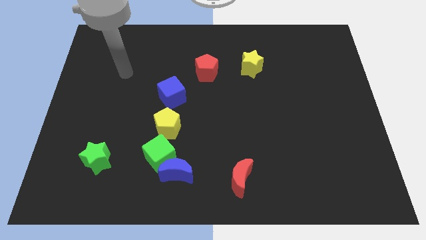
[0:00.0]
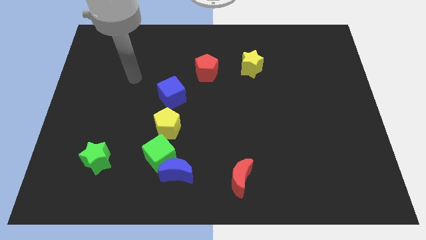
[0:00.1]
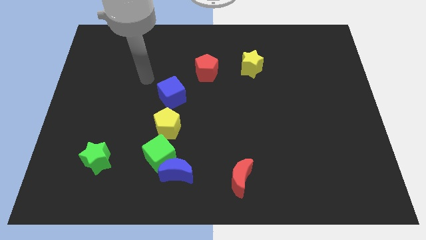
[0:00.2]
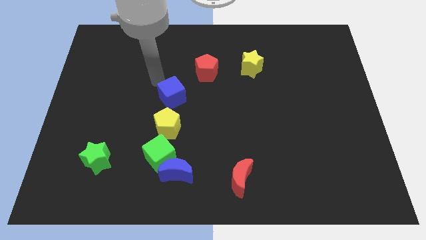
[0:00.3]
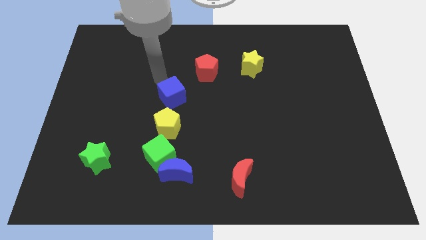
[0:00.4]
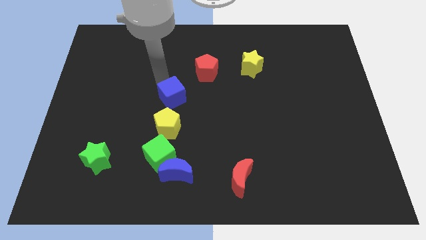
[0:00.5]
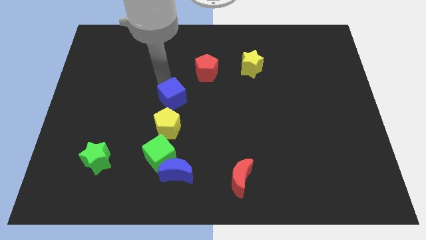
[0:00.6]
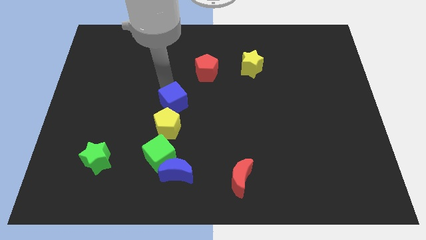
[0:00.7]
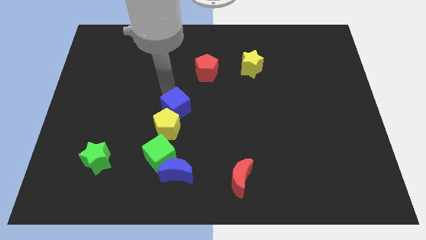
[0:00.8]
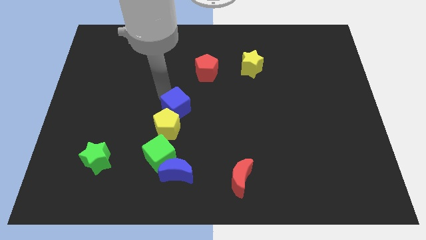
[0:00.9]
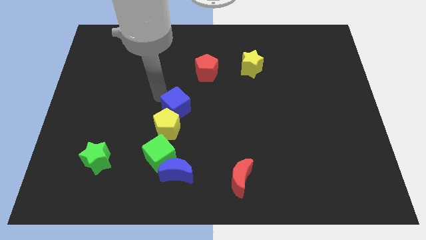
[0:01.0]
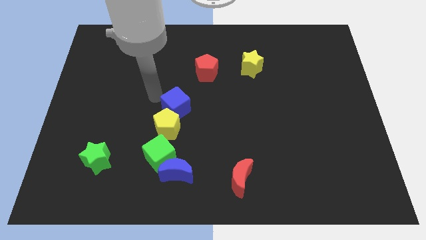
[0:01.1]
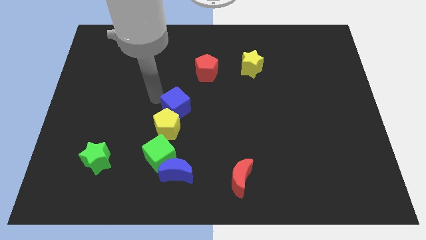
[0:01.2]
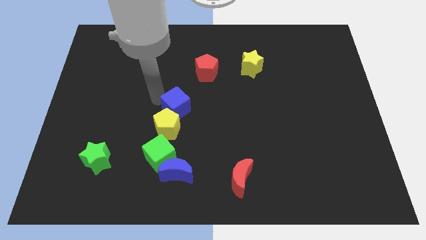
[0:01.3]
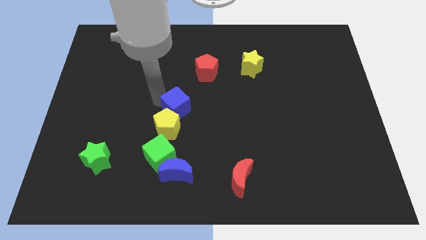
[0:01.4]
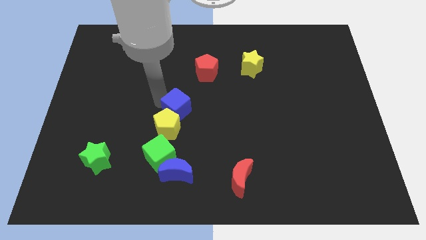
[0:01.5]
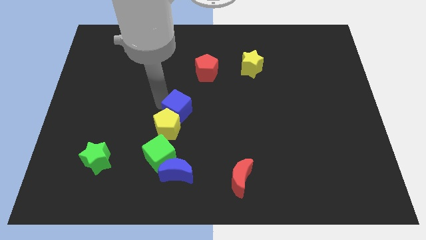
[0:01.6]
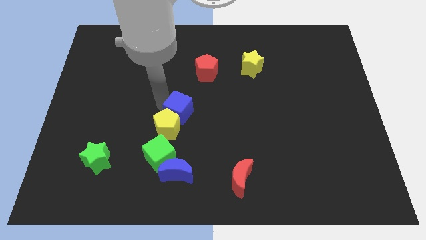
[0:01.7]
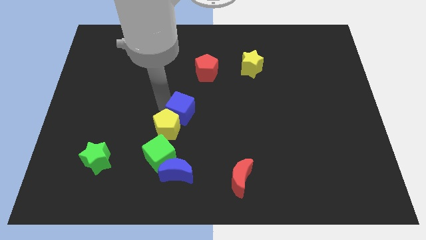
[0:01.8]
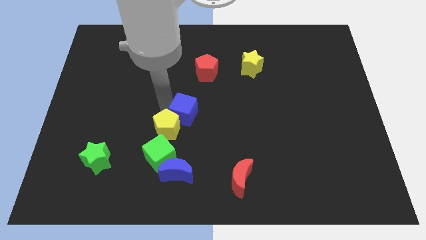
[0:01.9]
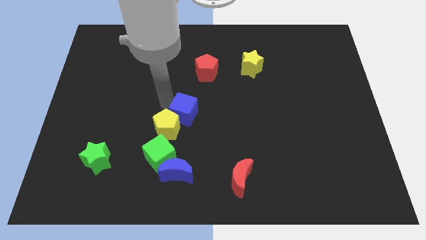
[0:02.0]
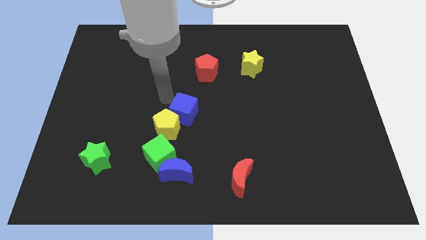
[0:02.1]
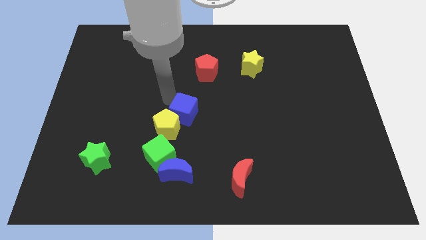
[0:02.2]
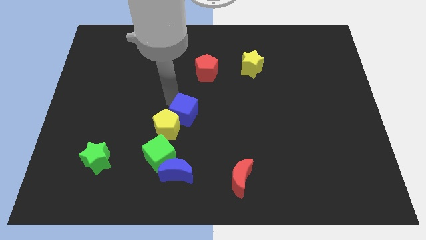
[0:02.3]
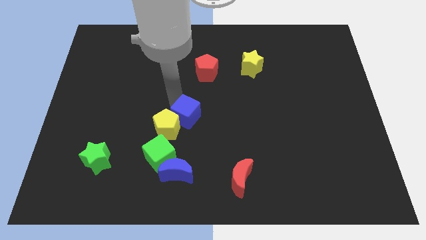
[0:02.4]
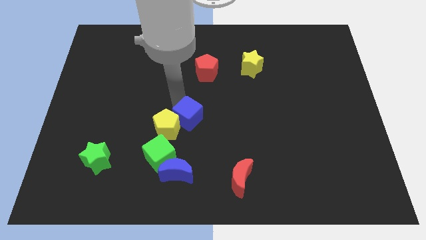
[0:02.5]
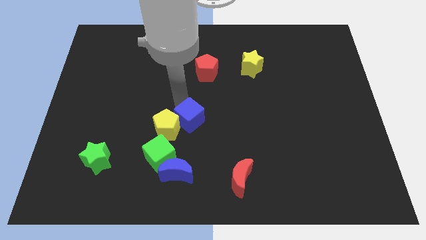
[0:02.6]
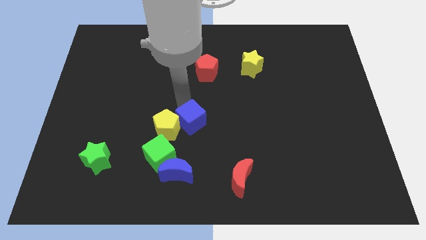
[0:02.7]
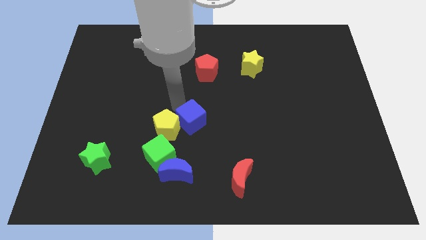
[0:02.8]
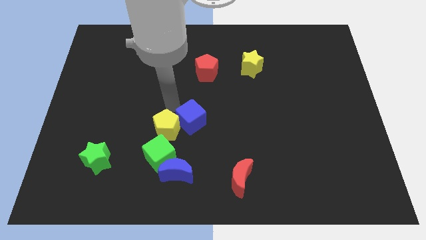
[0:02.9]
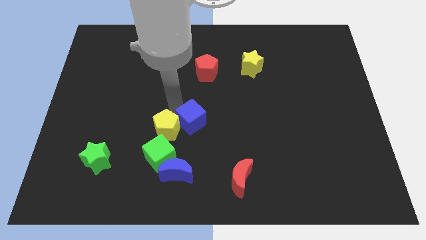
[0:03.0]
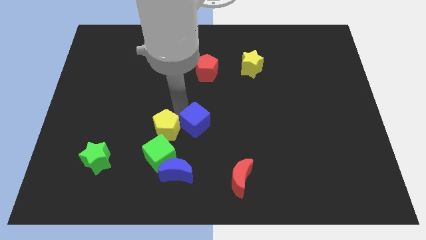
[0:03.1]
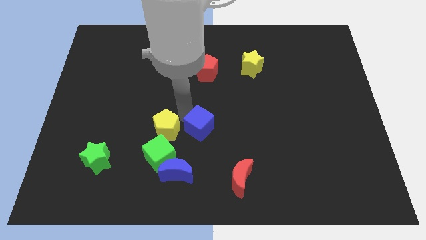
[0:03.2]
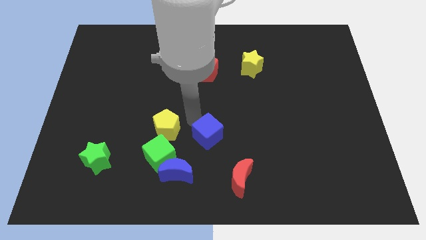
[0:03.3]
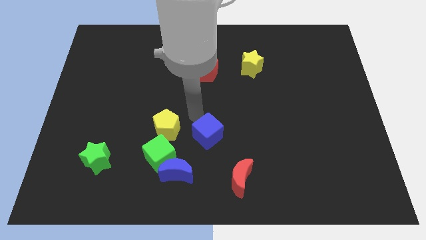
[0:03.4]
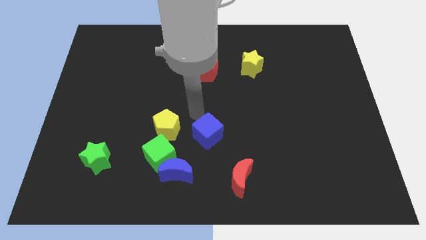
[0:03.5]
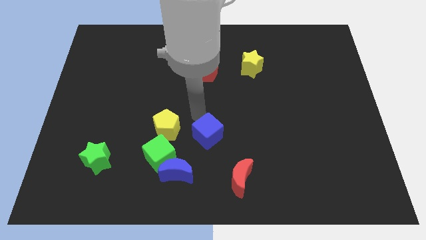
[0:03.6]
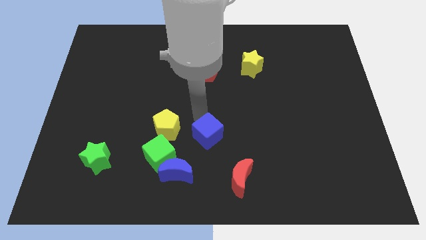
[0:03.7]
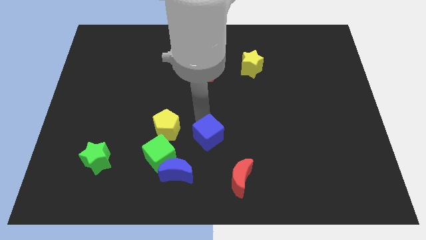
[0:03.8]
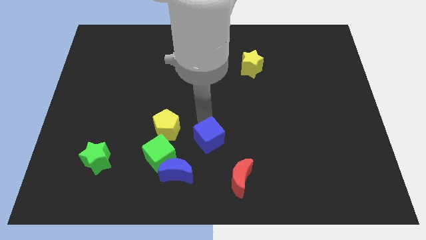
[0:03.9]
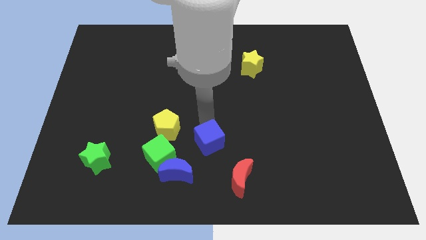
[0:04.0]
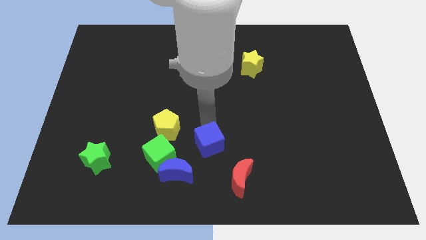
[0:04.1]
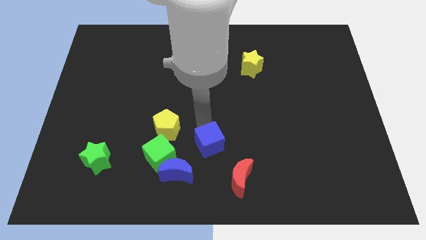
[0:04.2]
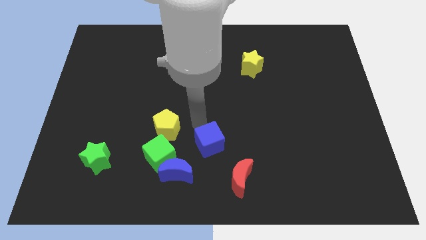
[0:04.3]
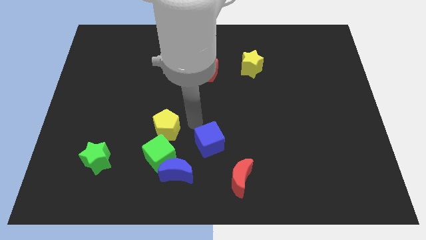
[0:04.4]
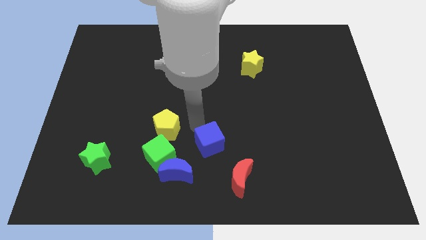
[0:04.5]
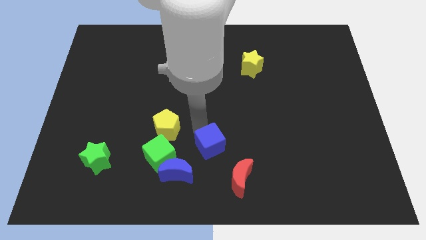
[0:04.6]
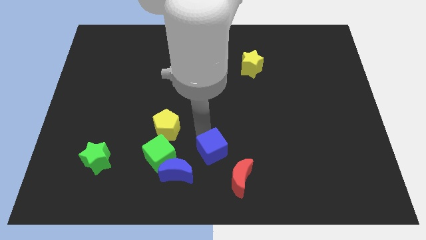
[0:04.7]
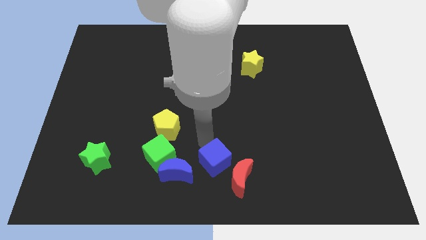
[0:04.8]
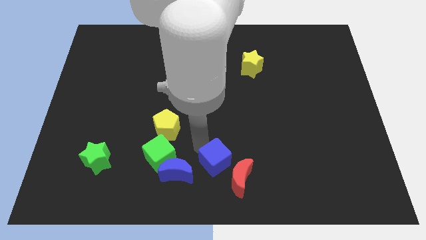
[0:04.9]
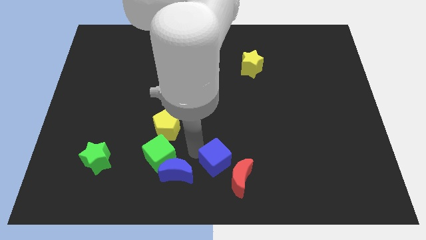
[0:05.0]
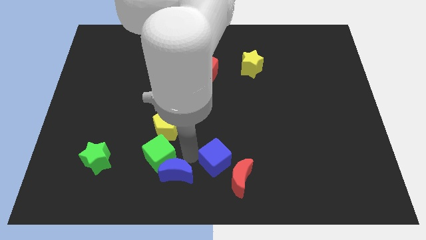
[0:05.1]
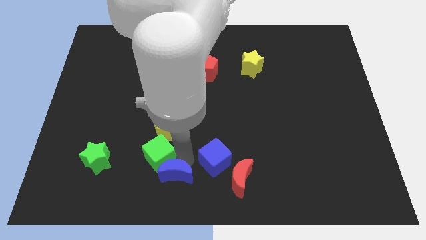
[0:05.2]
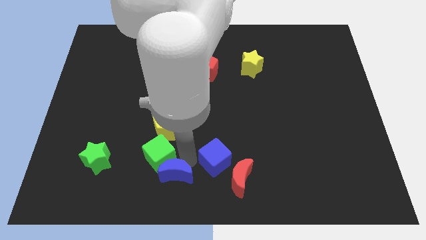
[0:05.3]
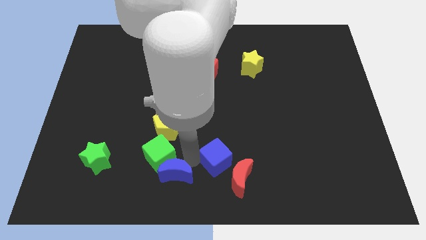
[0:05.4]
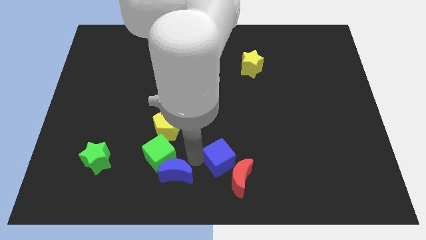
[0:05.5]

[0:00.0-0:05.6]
push the blue cube downwards and then to the right

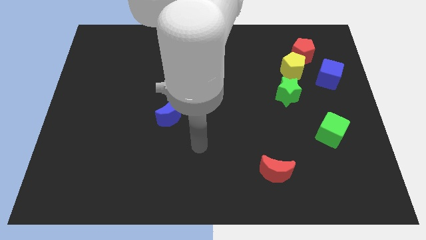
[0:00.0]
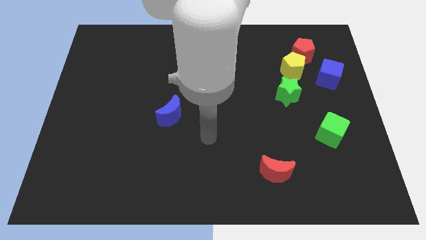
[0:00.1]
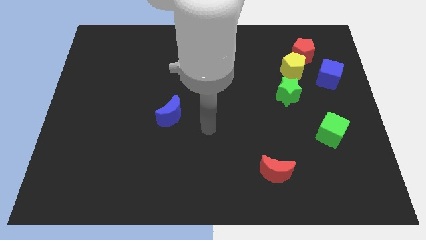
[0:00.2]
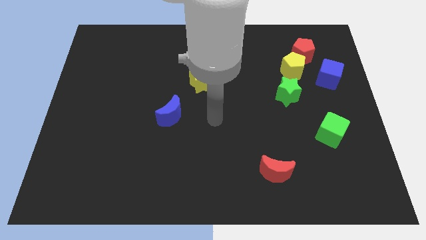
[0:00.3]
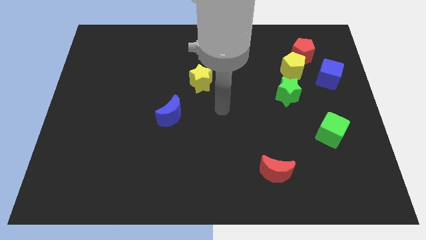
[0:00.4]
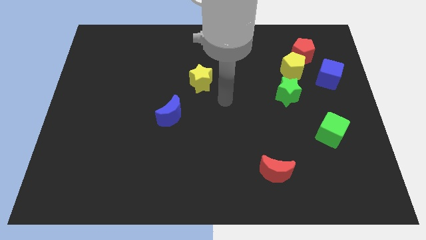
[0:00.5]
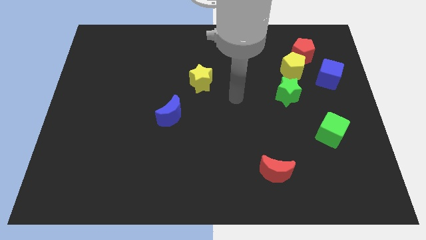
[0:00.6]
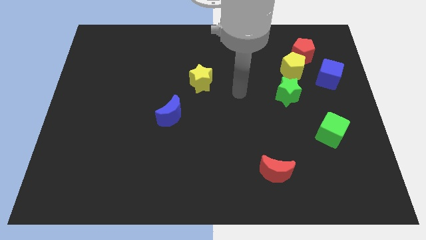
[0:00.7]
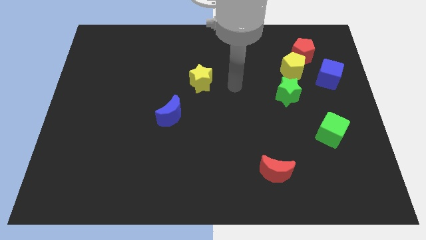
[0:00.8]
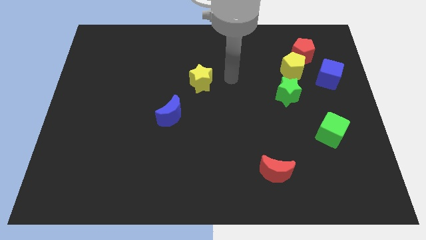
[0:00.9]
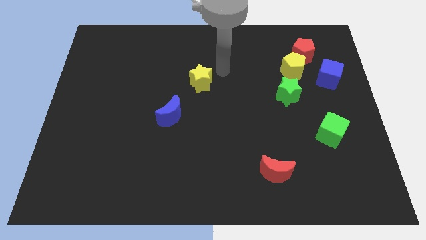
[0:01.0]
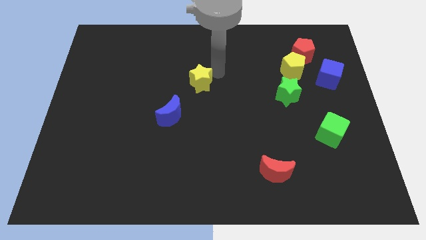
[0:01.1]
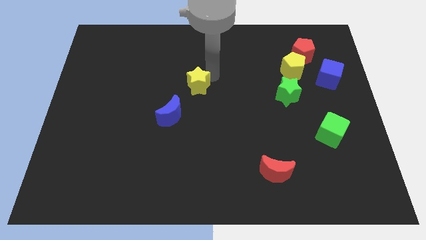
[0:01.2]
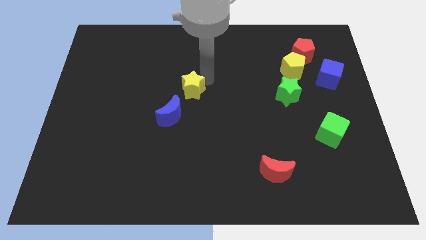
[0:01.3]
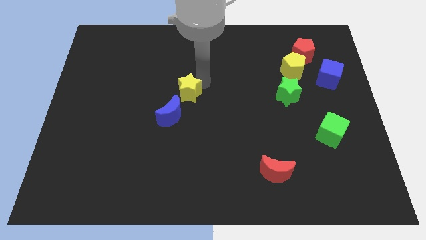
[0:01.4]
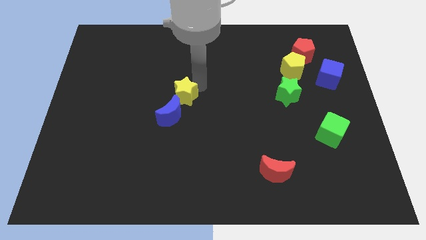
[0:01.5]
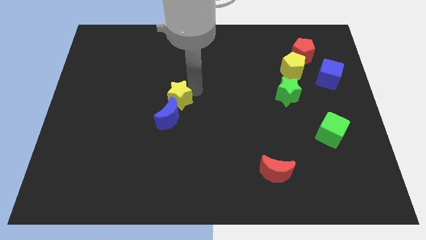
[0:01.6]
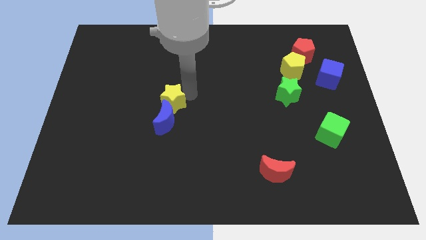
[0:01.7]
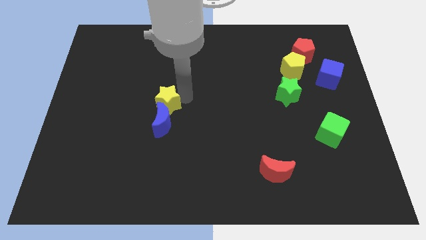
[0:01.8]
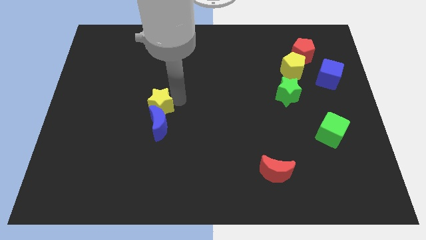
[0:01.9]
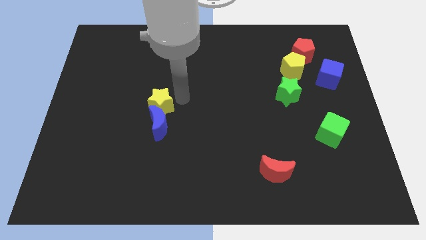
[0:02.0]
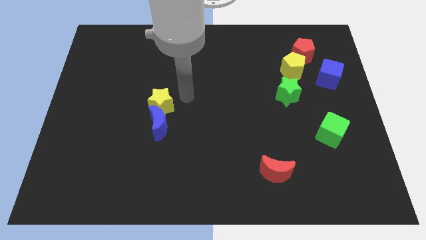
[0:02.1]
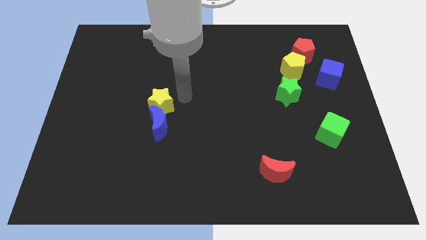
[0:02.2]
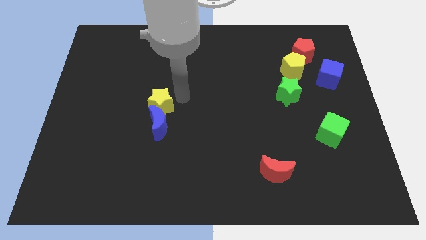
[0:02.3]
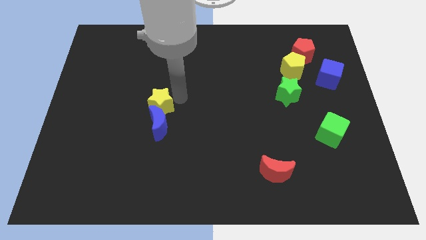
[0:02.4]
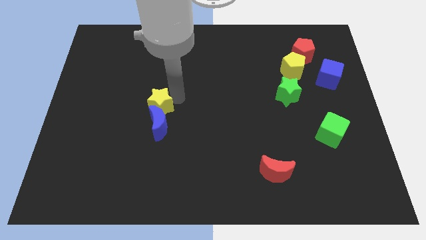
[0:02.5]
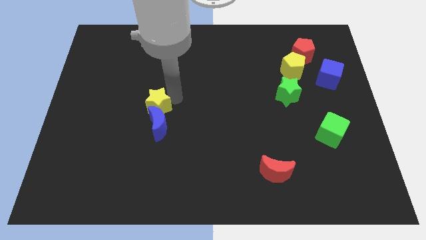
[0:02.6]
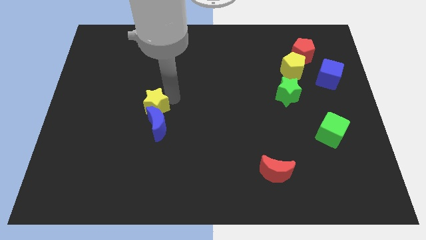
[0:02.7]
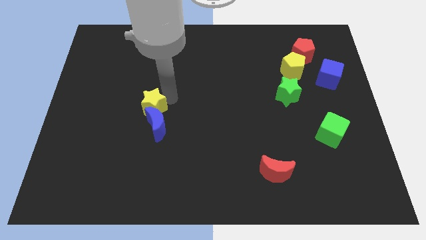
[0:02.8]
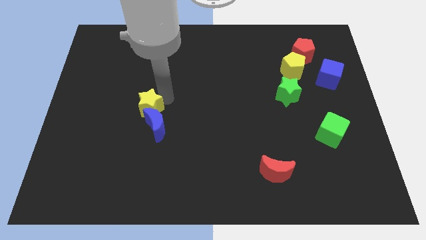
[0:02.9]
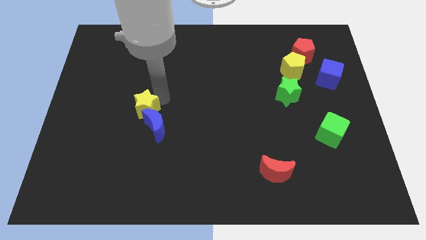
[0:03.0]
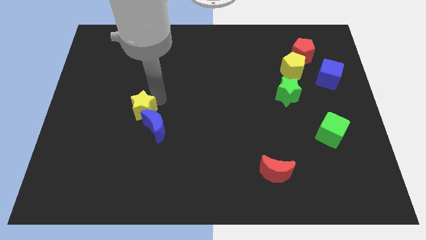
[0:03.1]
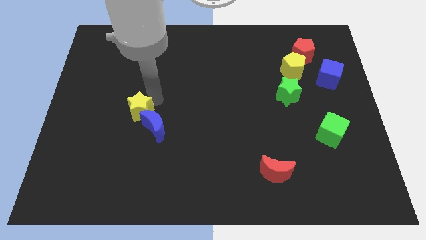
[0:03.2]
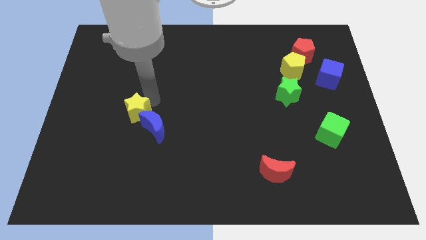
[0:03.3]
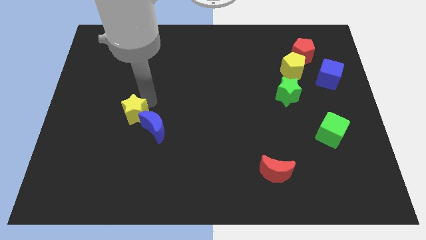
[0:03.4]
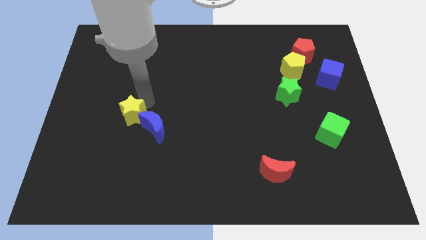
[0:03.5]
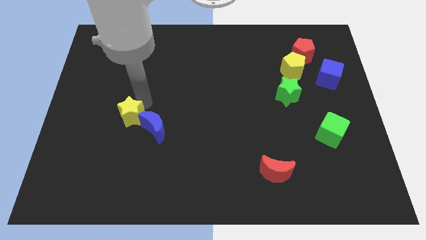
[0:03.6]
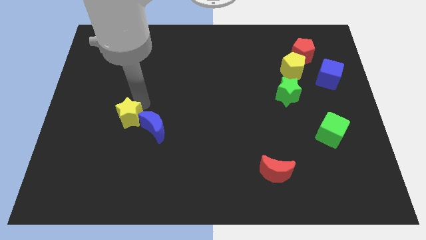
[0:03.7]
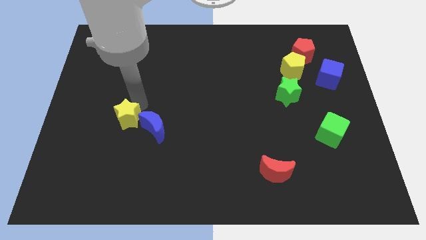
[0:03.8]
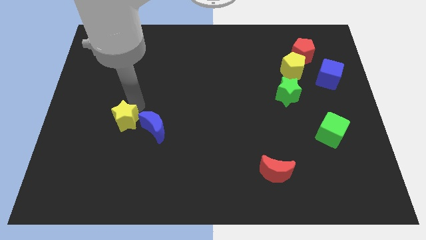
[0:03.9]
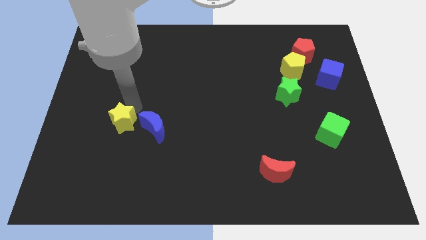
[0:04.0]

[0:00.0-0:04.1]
move the yellow star diagonally downwards and to the left
